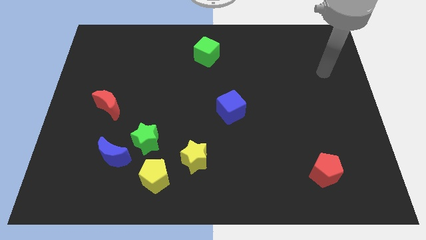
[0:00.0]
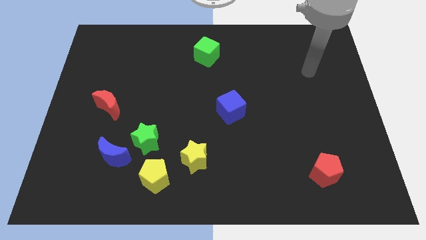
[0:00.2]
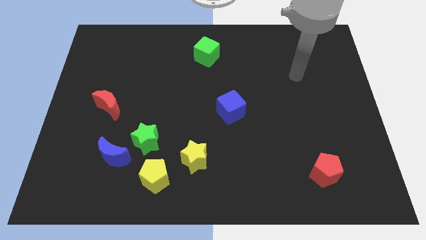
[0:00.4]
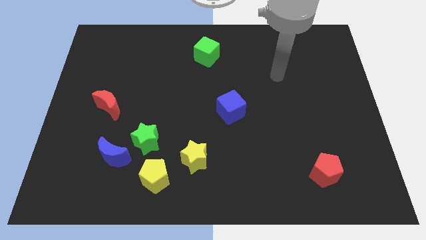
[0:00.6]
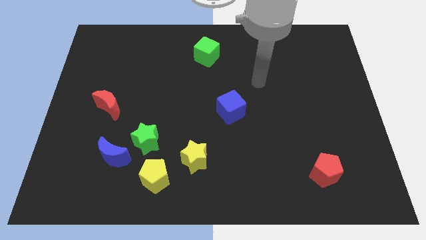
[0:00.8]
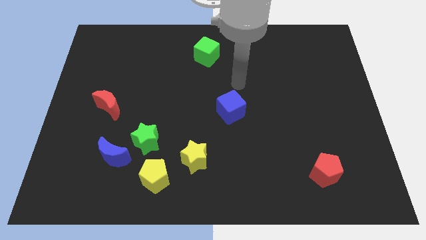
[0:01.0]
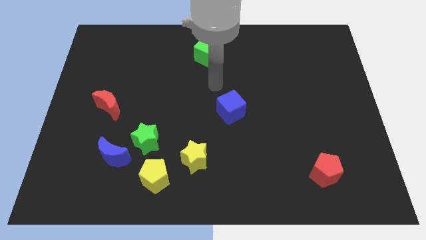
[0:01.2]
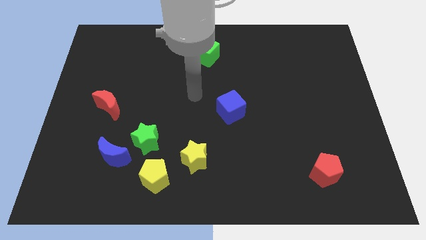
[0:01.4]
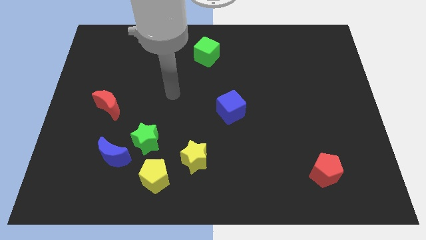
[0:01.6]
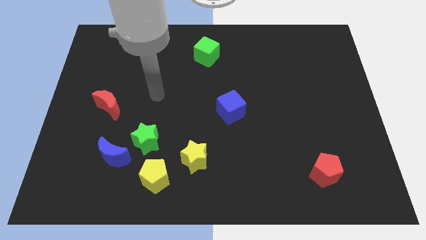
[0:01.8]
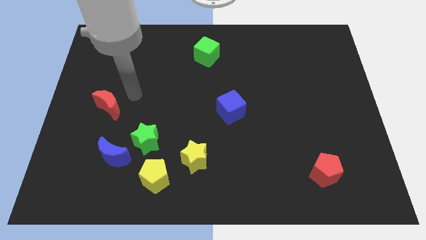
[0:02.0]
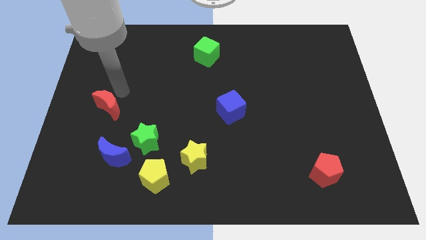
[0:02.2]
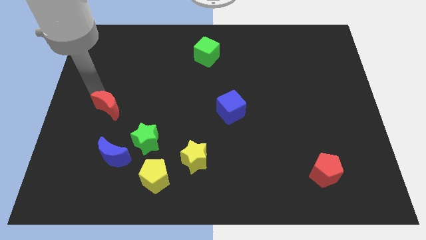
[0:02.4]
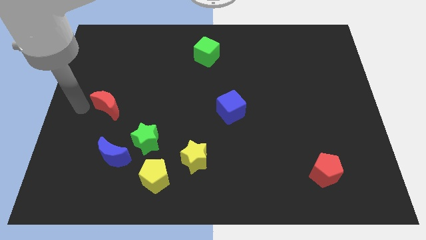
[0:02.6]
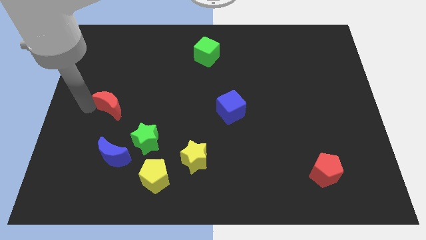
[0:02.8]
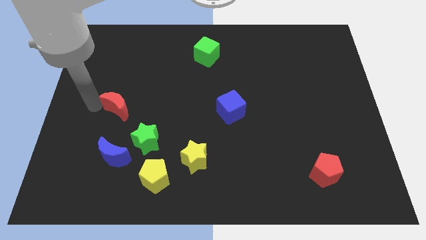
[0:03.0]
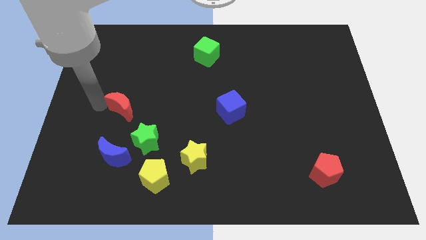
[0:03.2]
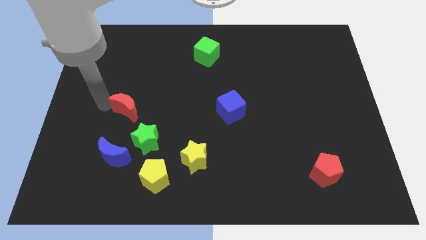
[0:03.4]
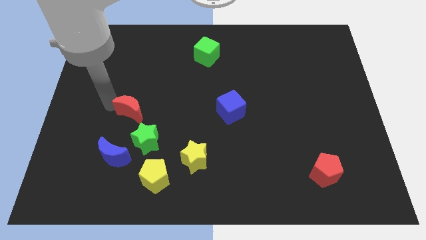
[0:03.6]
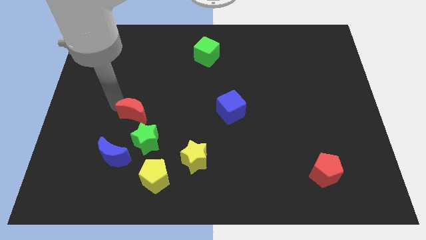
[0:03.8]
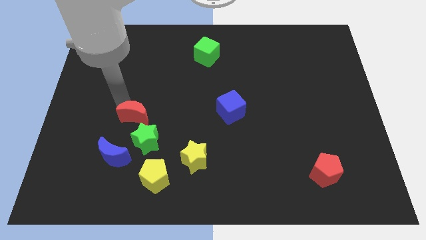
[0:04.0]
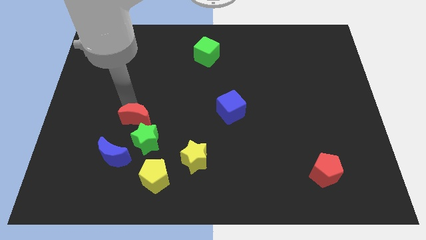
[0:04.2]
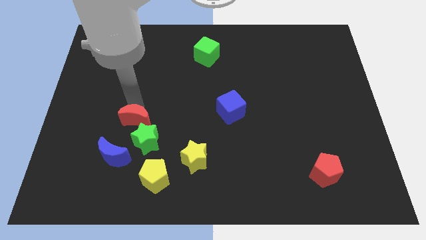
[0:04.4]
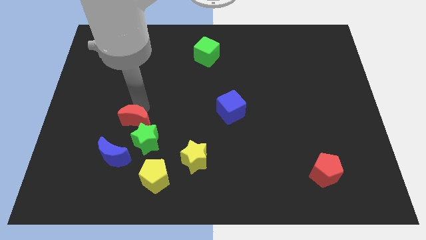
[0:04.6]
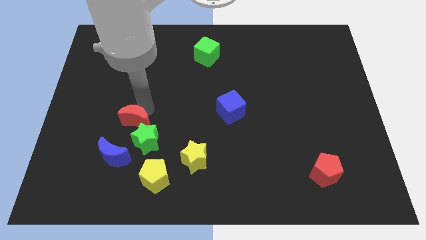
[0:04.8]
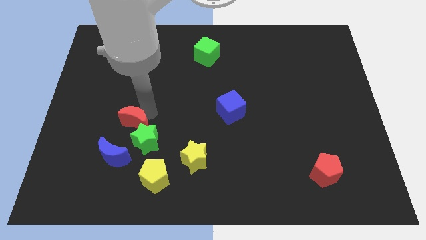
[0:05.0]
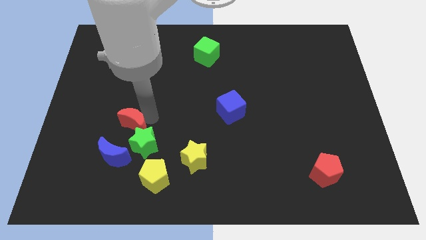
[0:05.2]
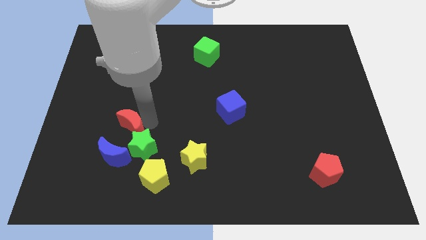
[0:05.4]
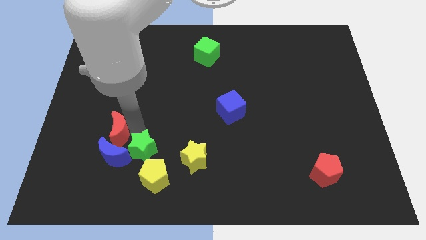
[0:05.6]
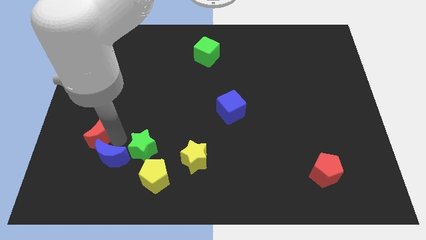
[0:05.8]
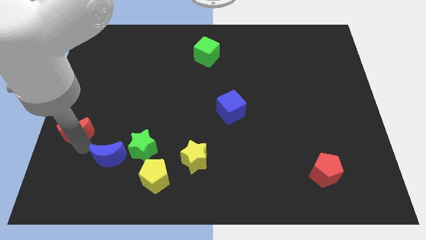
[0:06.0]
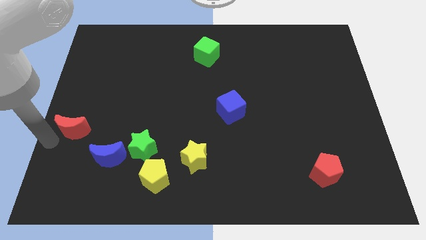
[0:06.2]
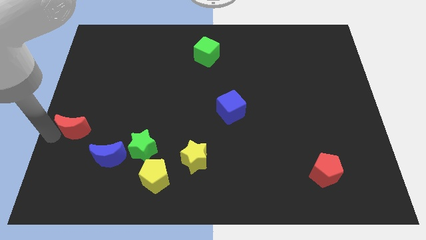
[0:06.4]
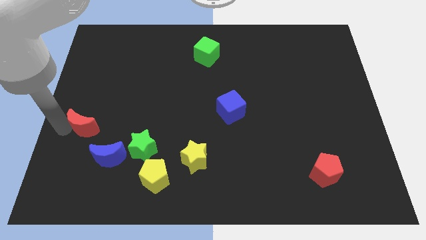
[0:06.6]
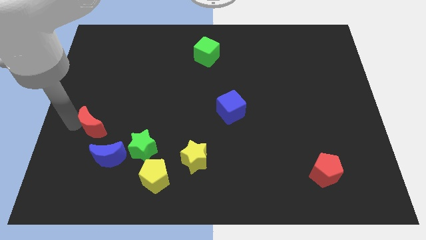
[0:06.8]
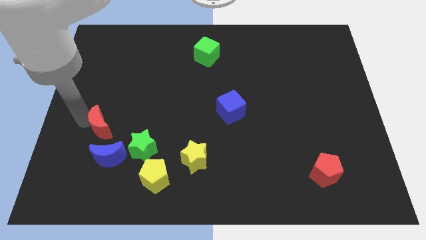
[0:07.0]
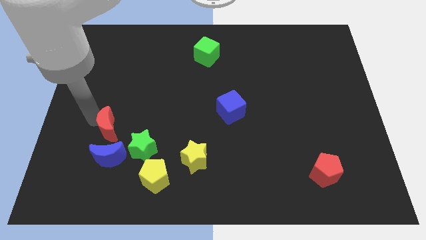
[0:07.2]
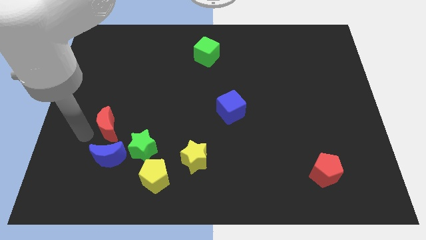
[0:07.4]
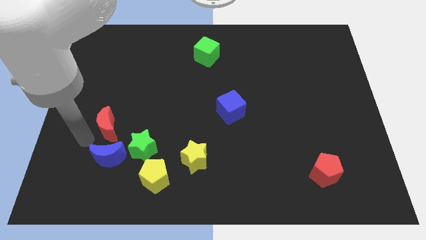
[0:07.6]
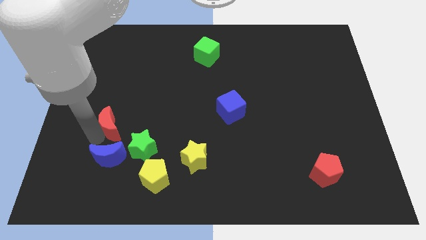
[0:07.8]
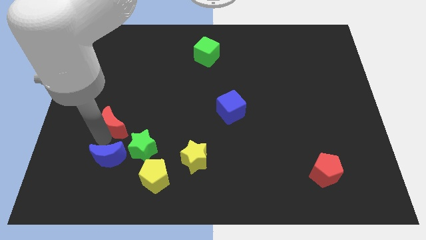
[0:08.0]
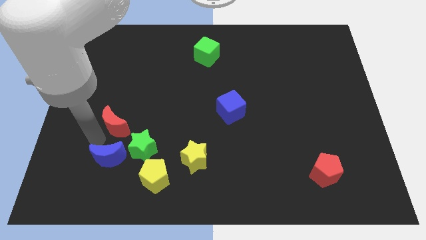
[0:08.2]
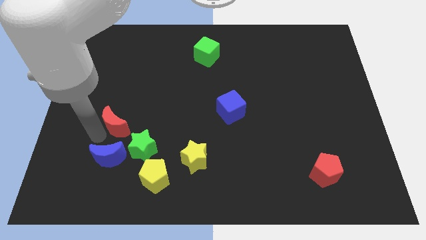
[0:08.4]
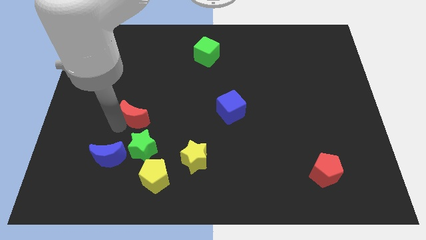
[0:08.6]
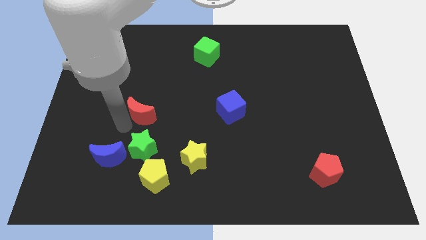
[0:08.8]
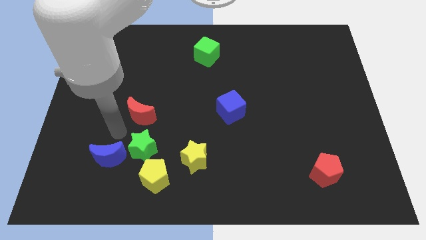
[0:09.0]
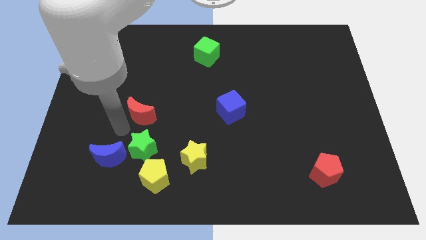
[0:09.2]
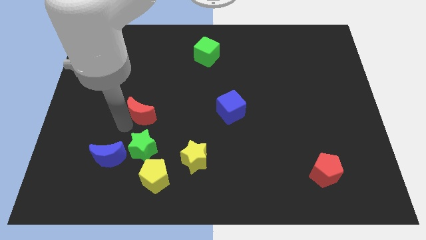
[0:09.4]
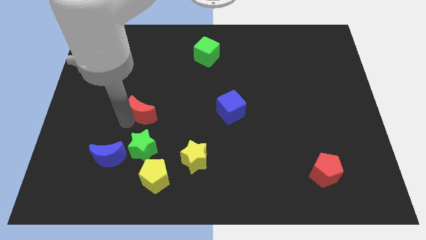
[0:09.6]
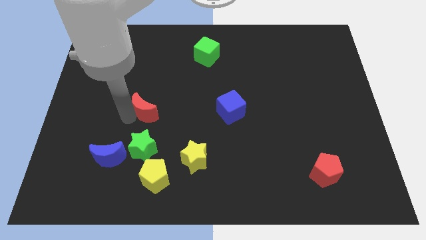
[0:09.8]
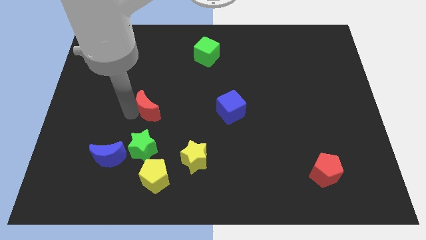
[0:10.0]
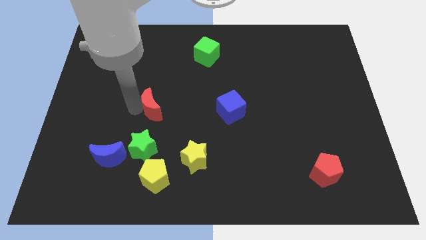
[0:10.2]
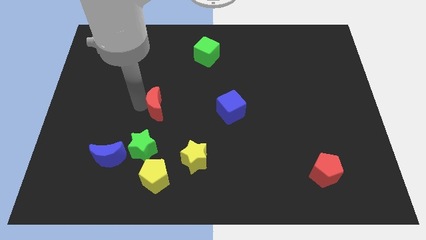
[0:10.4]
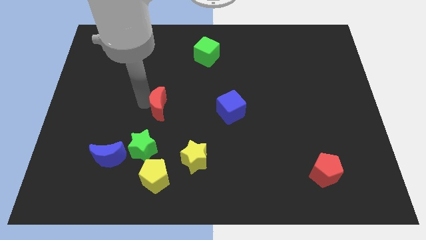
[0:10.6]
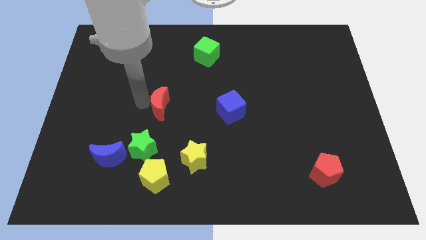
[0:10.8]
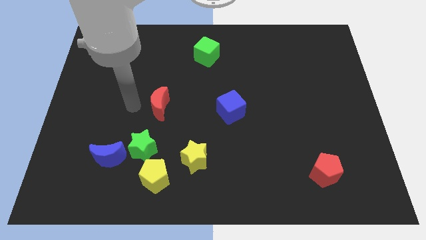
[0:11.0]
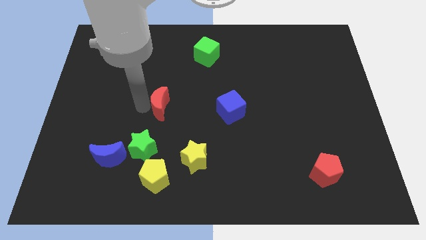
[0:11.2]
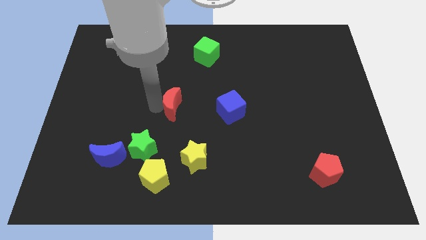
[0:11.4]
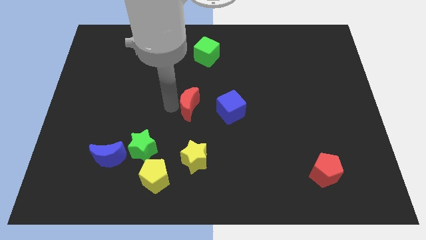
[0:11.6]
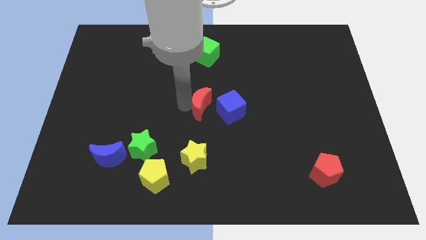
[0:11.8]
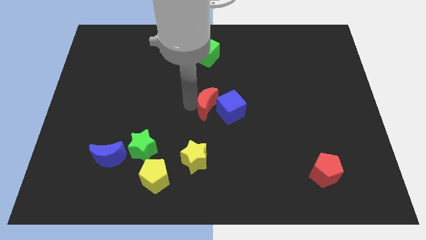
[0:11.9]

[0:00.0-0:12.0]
push the red moon close to the blue cube

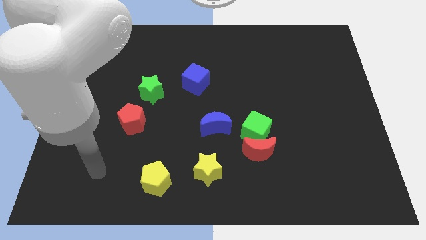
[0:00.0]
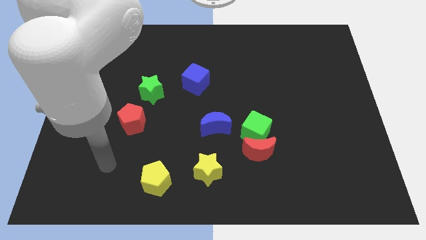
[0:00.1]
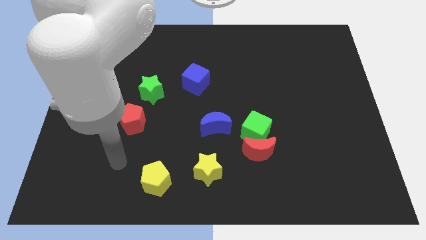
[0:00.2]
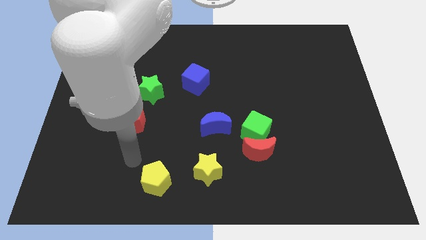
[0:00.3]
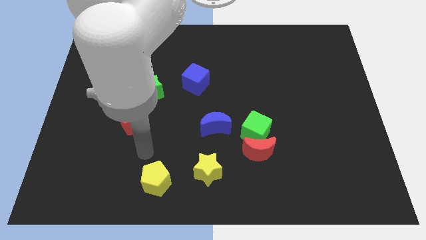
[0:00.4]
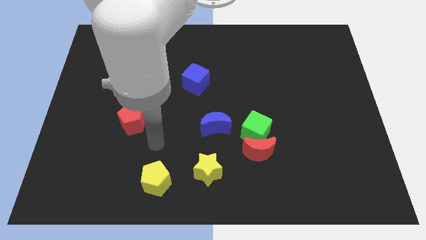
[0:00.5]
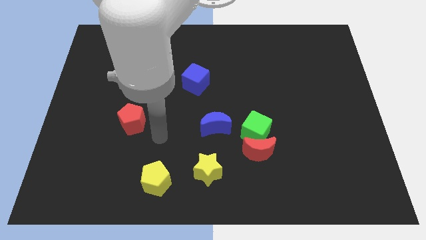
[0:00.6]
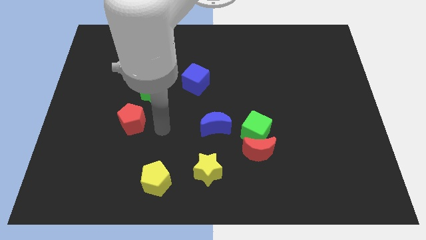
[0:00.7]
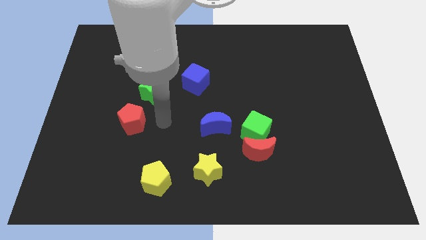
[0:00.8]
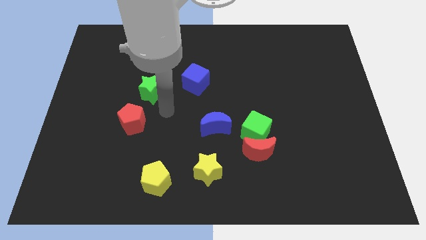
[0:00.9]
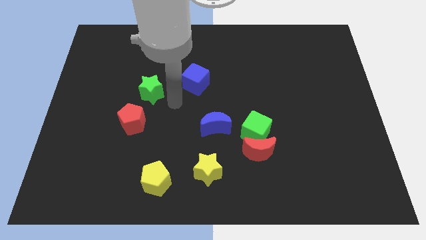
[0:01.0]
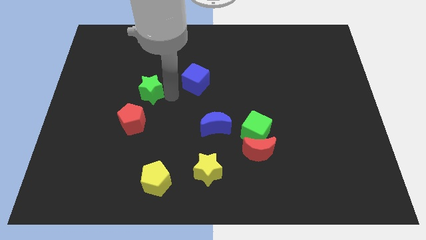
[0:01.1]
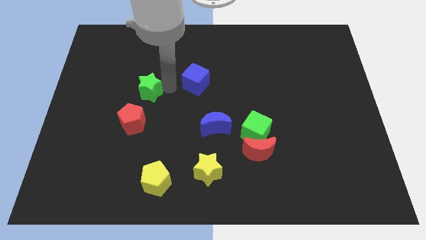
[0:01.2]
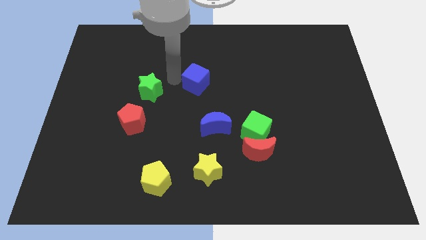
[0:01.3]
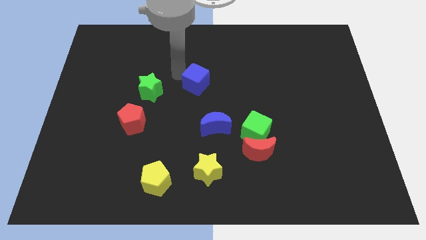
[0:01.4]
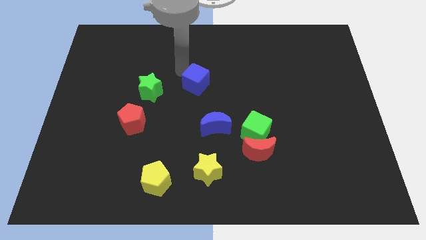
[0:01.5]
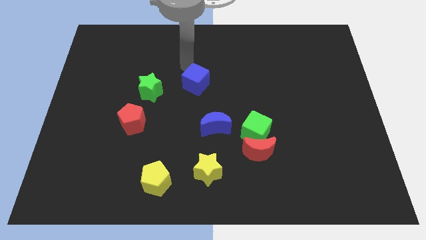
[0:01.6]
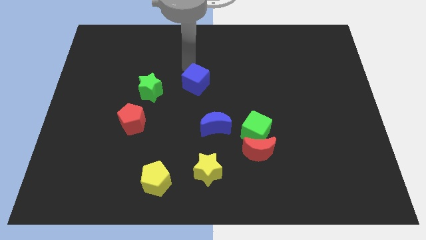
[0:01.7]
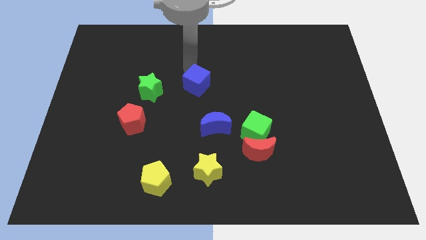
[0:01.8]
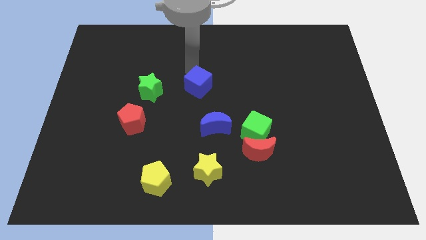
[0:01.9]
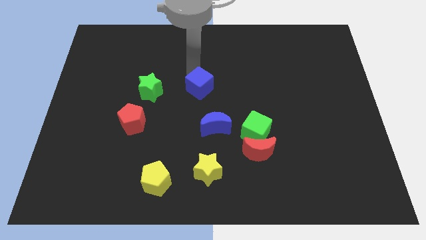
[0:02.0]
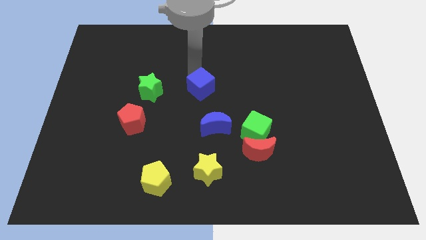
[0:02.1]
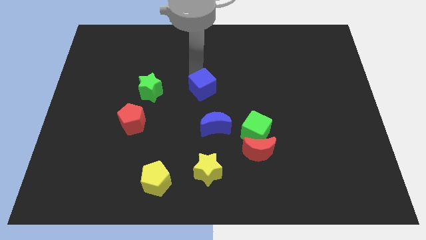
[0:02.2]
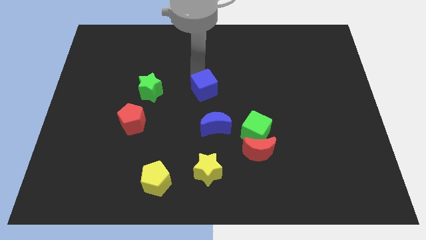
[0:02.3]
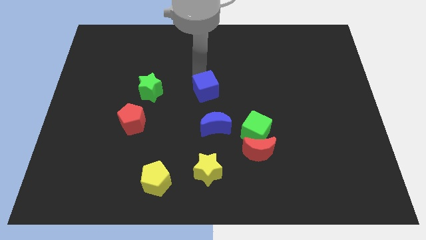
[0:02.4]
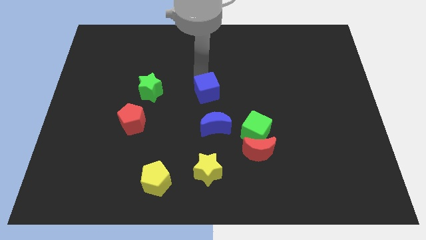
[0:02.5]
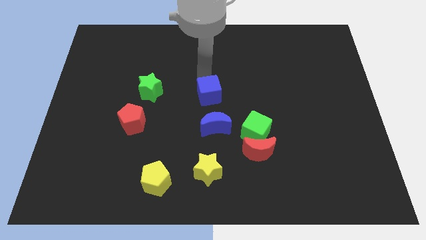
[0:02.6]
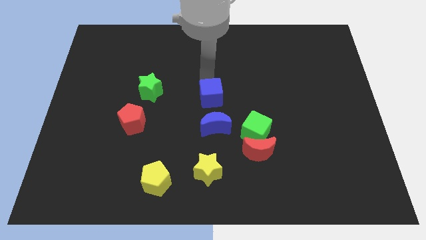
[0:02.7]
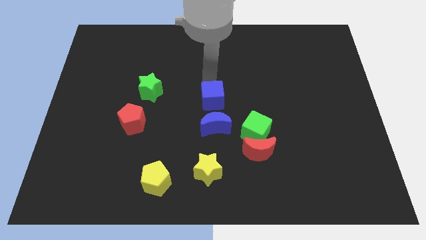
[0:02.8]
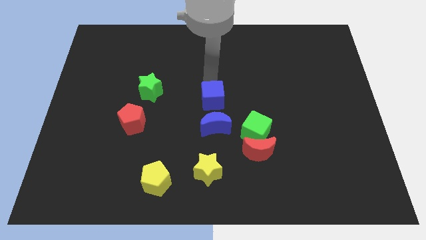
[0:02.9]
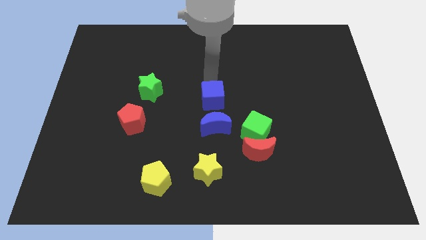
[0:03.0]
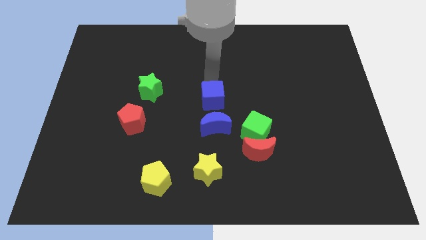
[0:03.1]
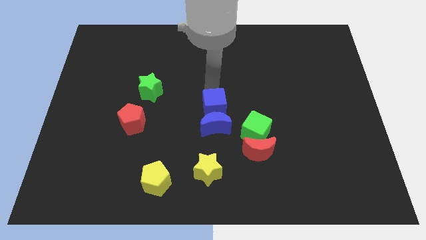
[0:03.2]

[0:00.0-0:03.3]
move the blue cube towards the blue moon
